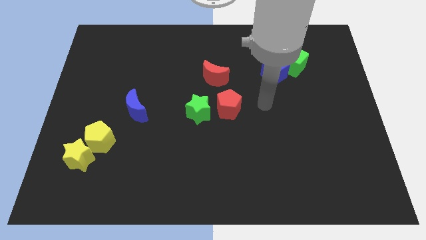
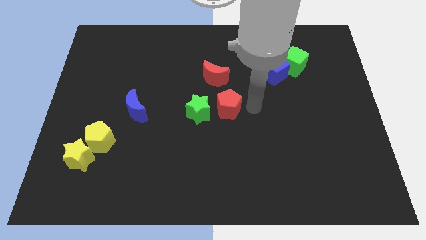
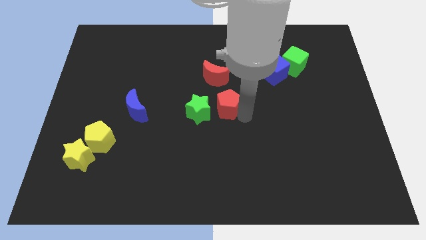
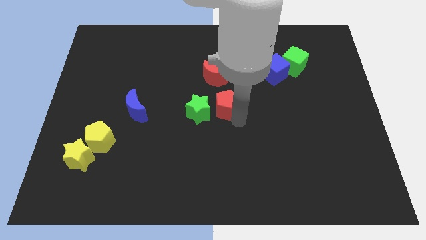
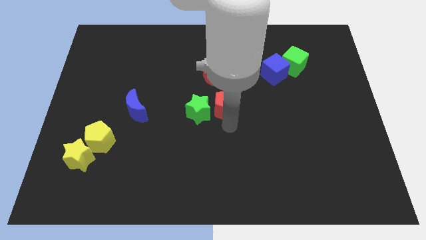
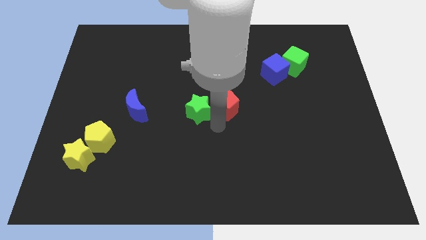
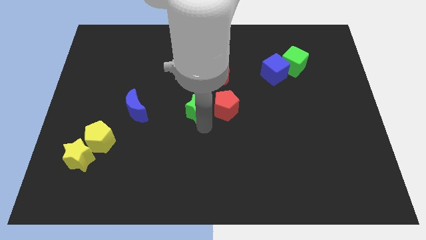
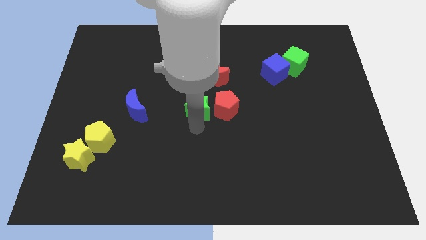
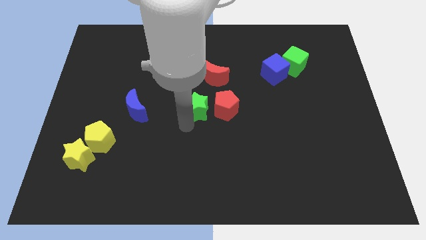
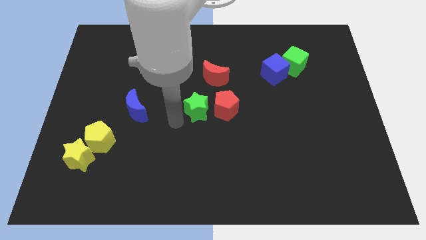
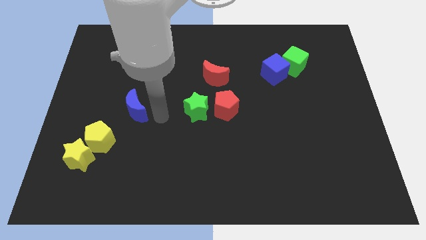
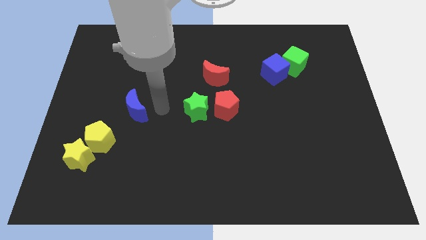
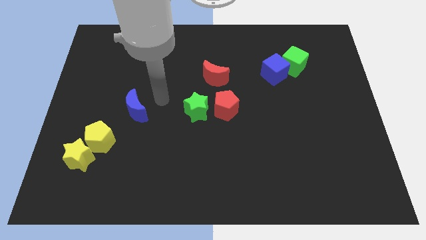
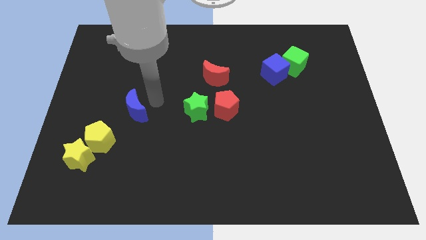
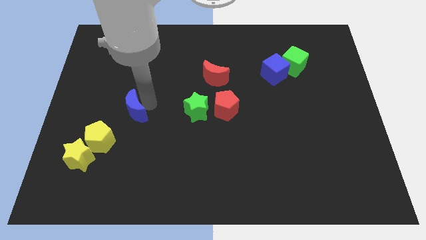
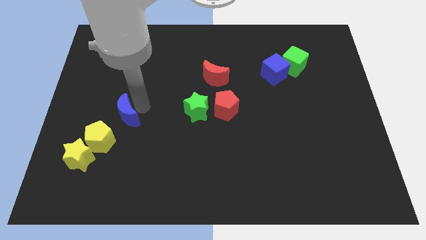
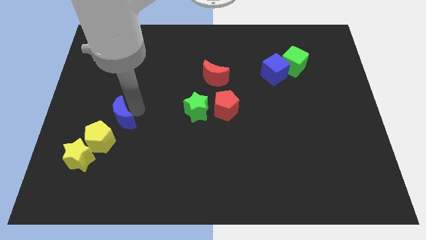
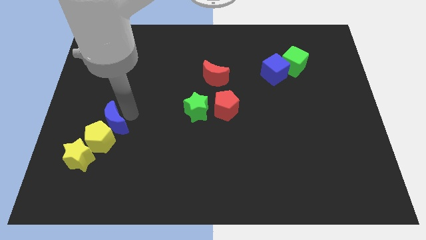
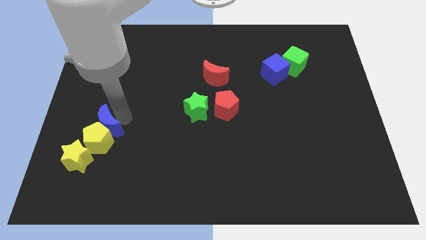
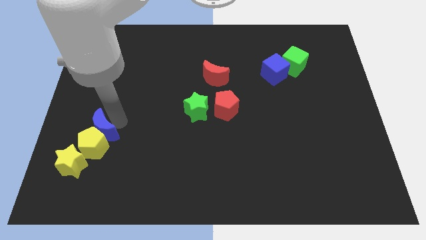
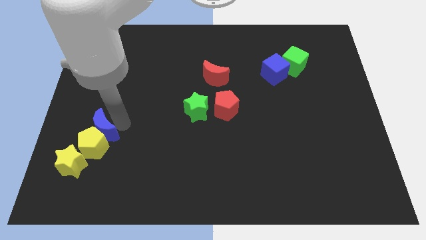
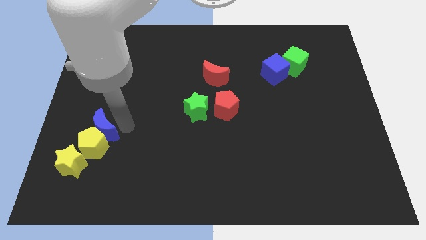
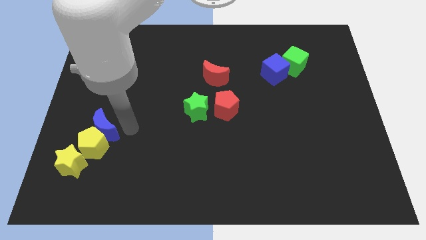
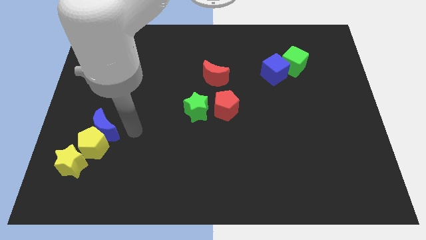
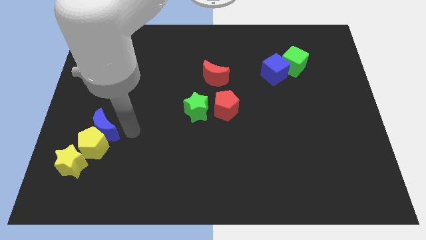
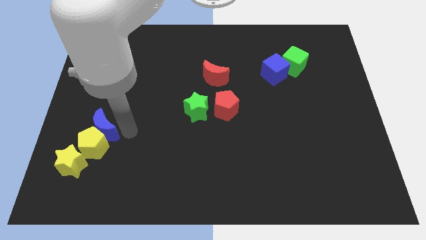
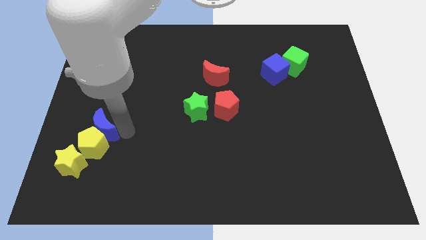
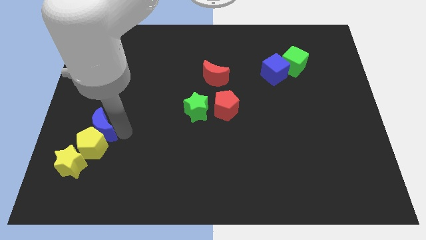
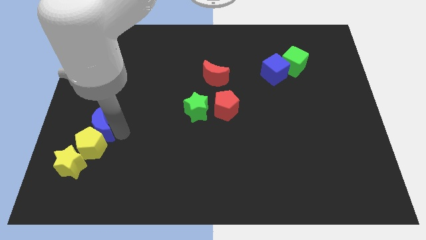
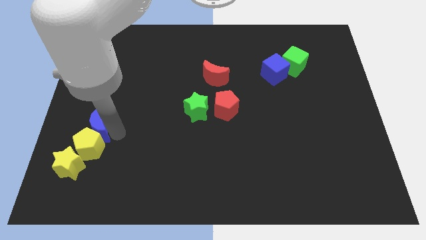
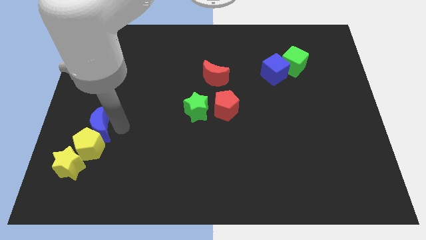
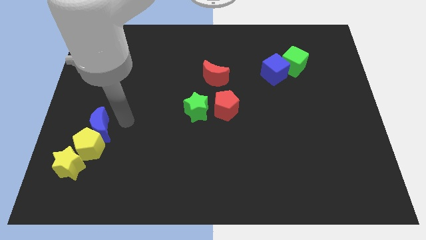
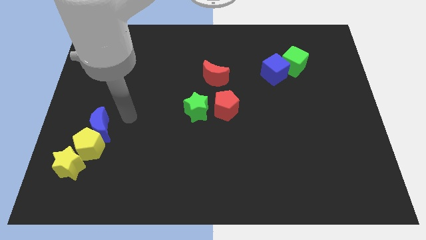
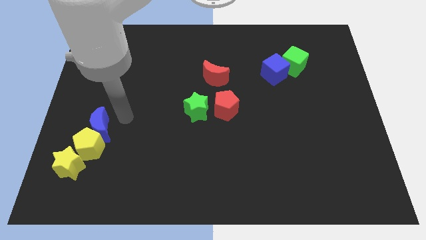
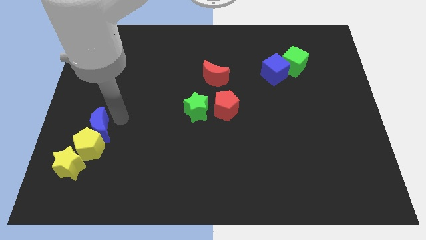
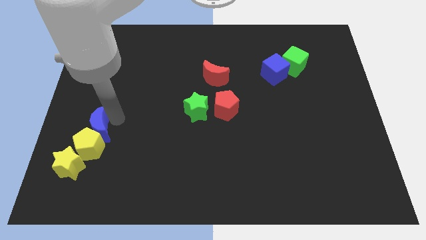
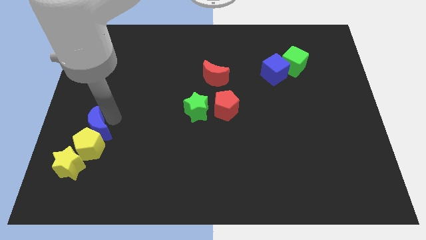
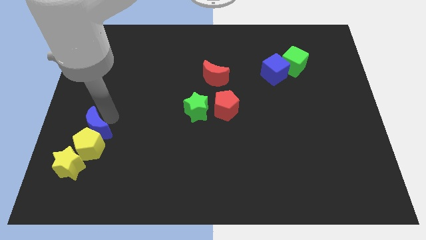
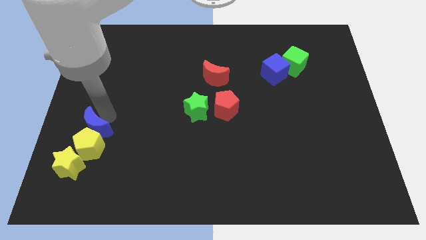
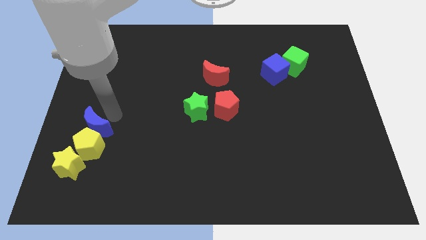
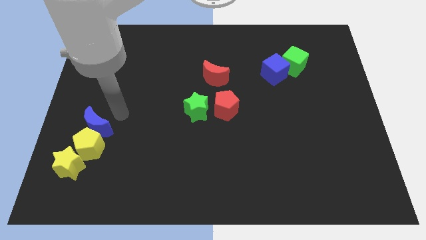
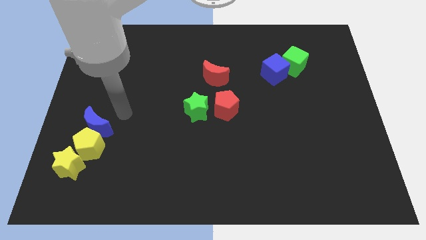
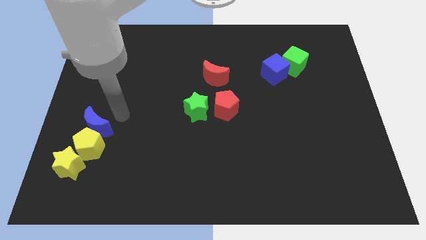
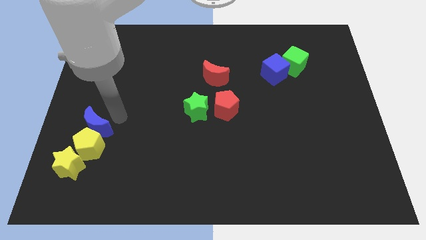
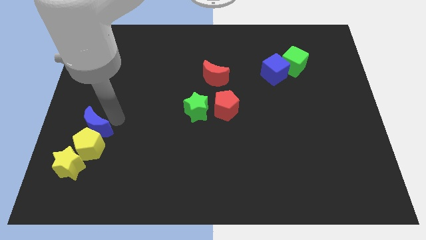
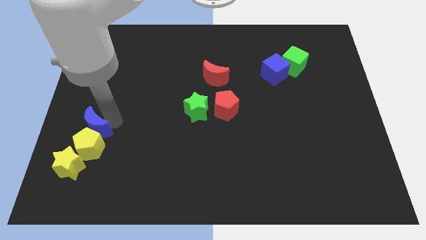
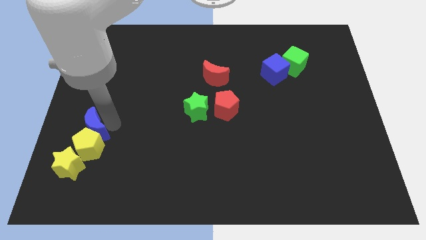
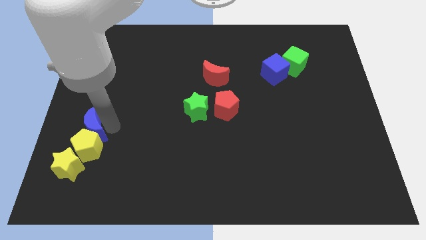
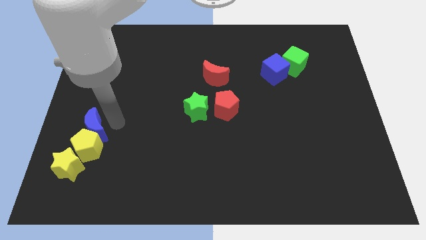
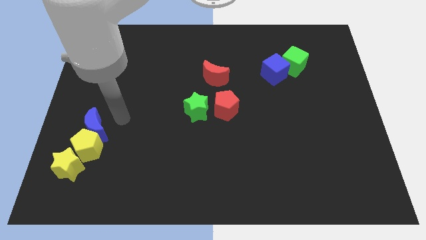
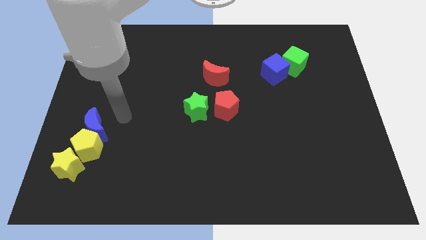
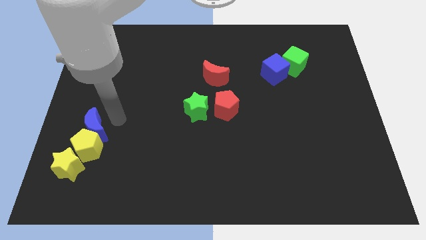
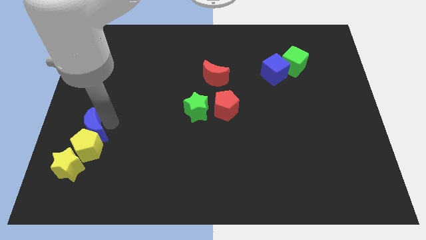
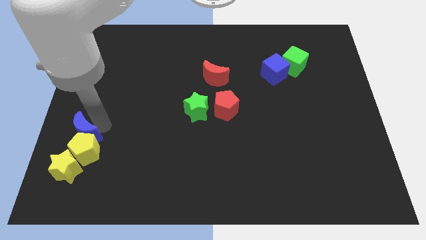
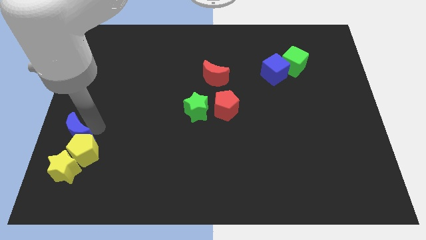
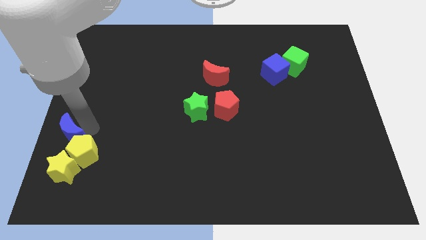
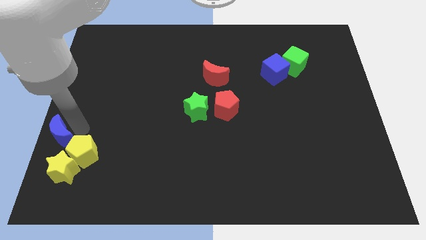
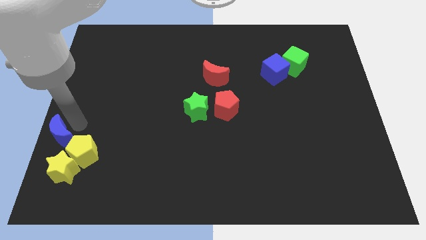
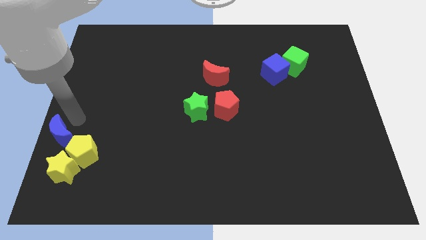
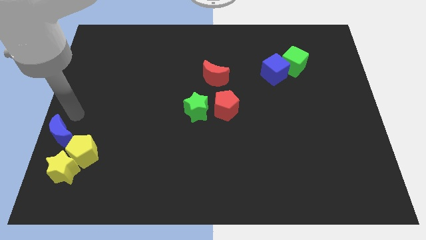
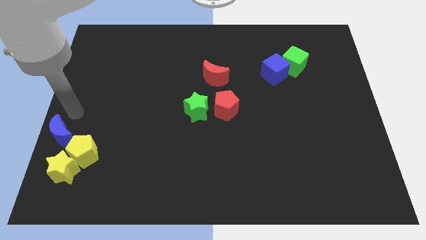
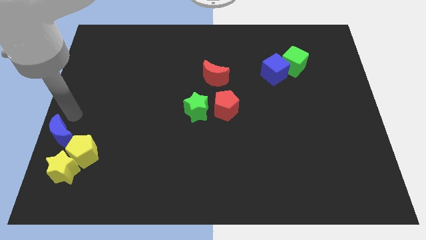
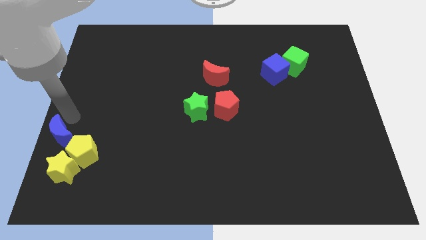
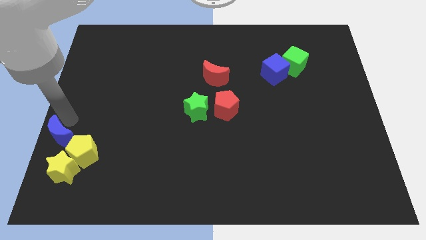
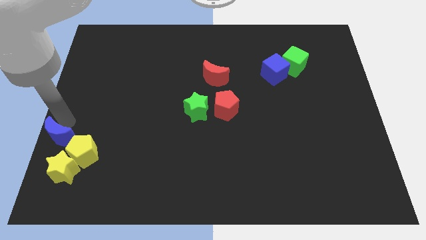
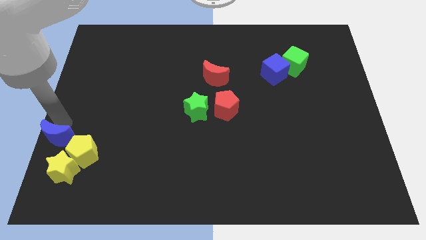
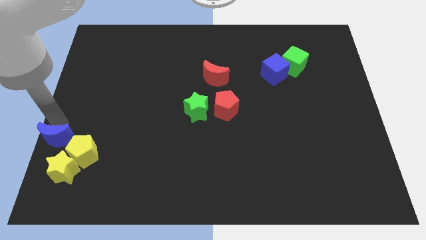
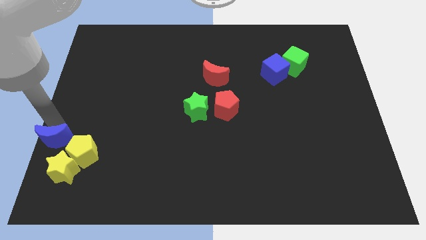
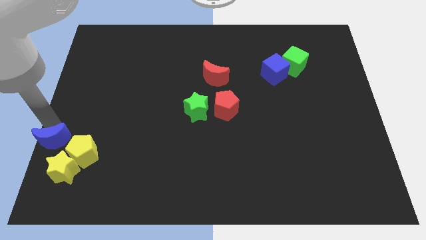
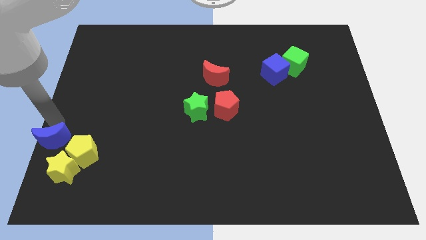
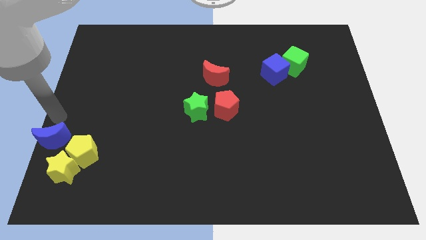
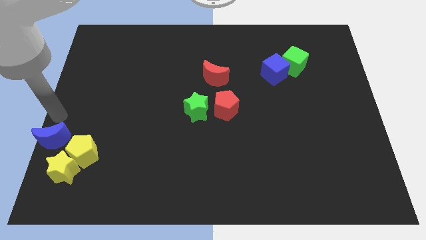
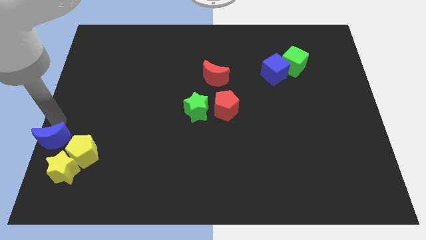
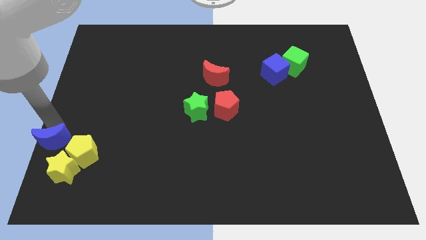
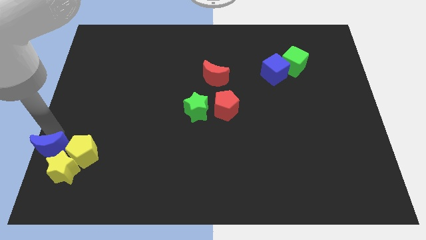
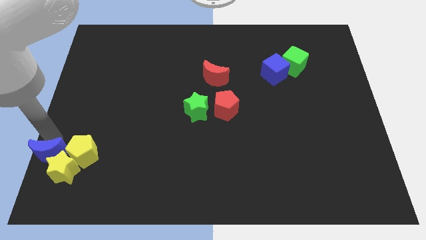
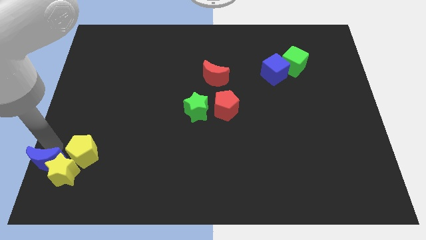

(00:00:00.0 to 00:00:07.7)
slide the blue moon to the bottom left corner
